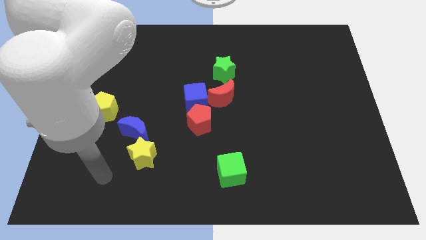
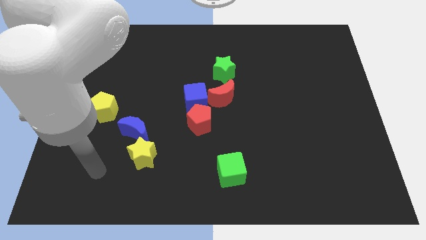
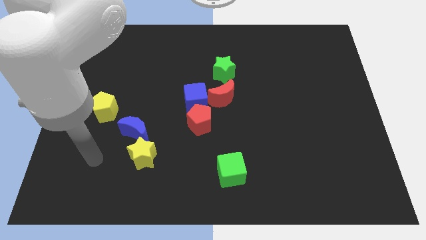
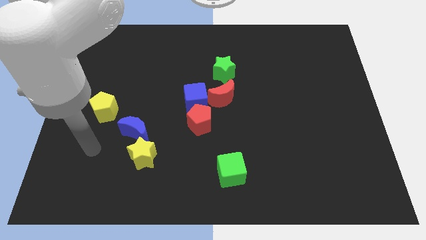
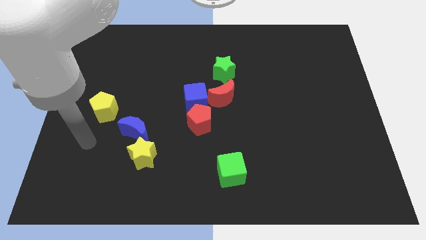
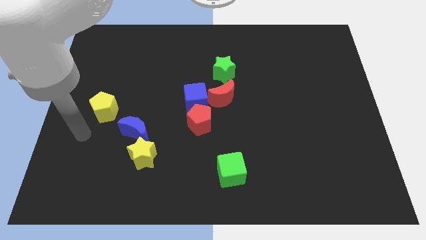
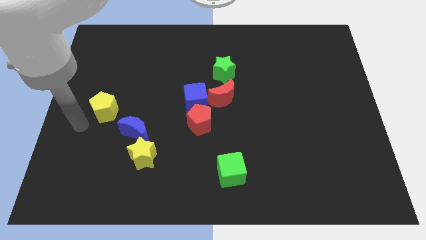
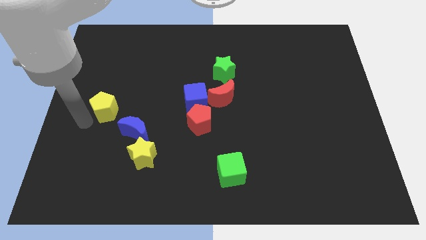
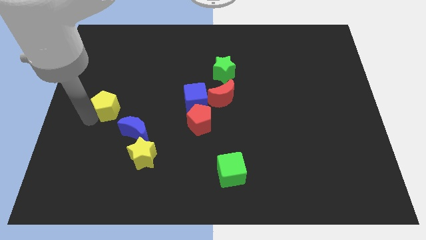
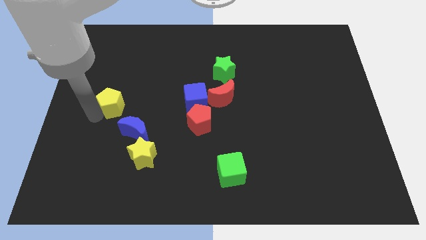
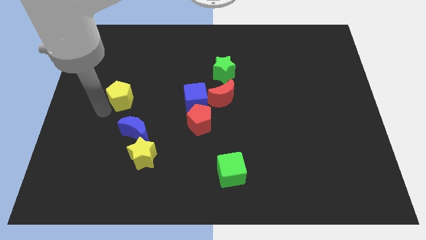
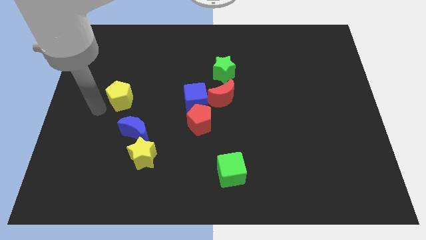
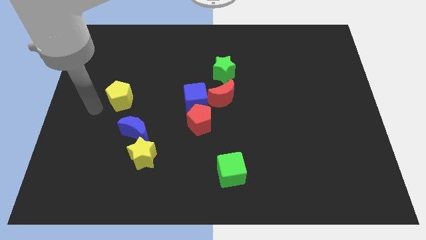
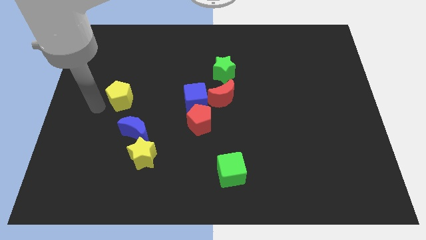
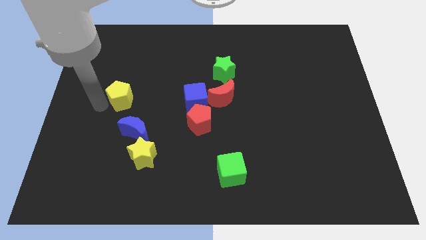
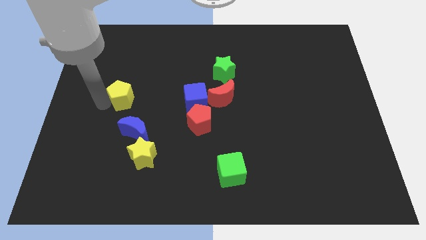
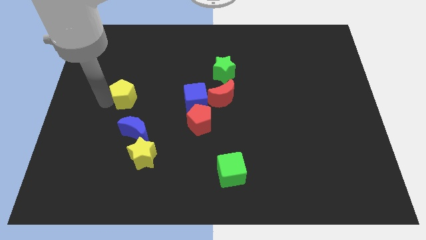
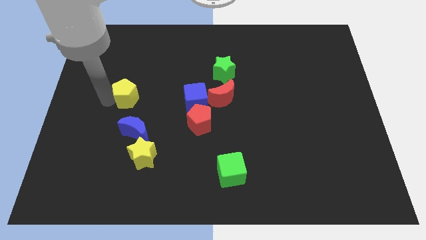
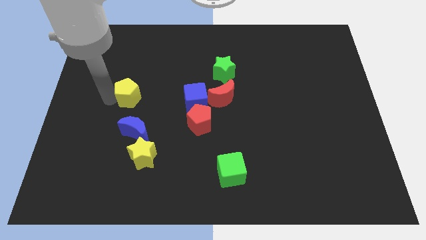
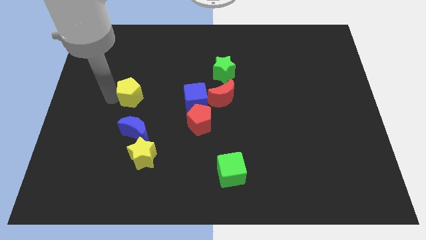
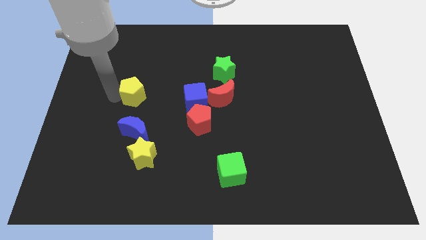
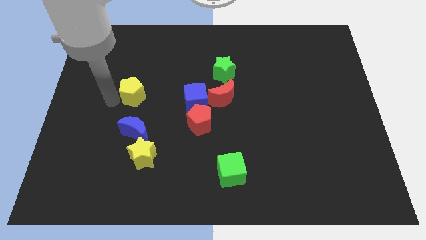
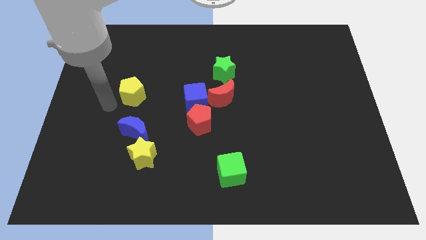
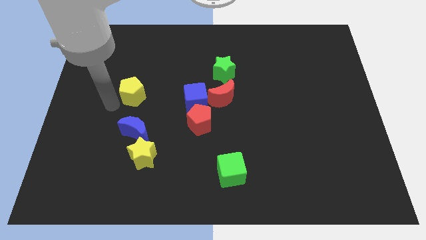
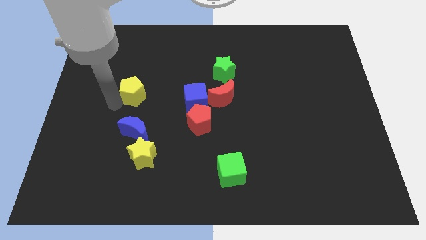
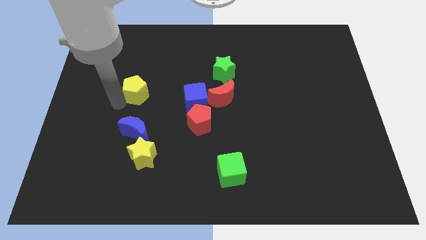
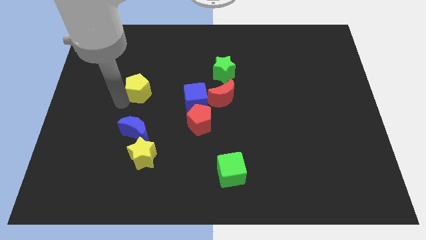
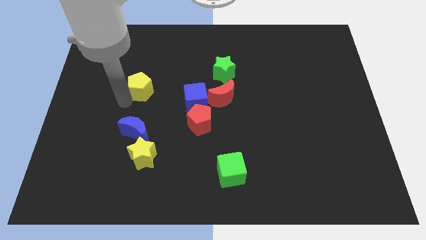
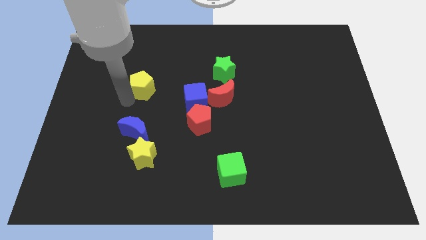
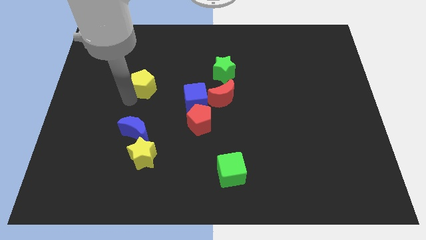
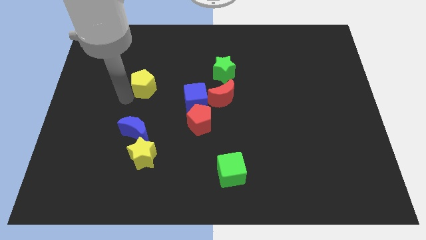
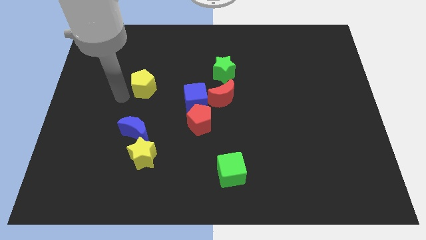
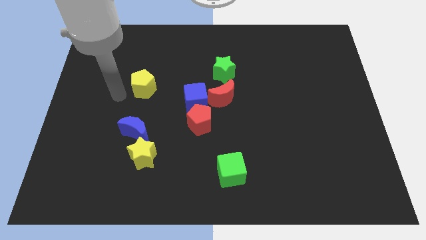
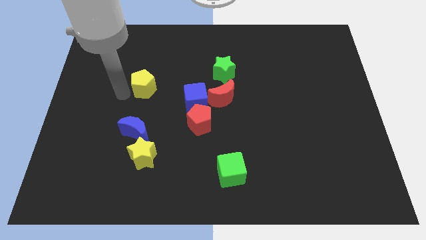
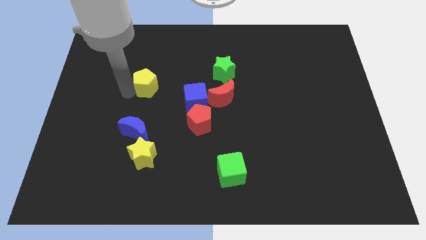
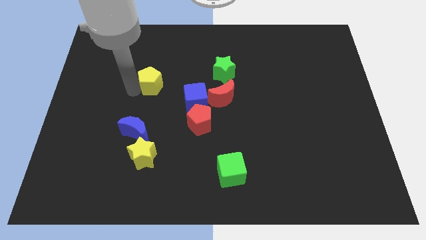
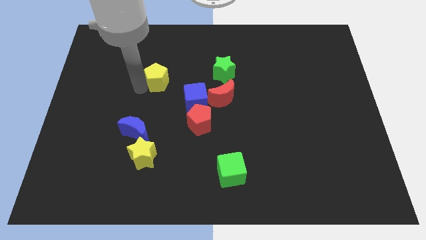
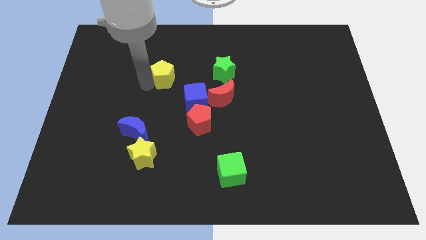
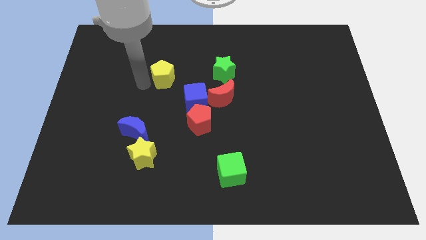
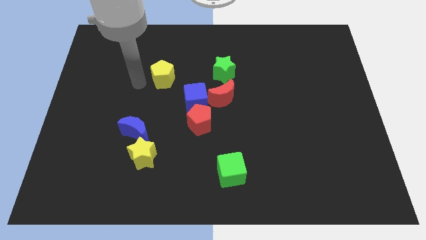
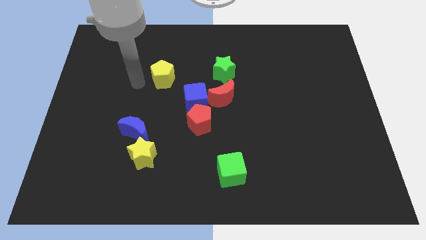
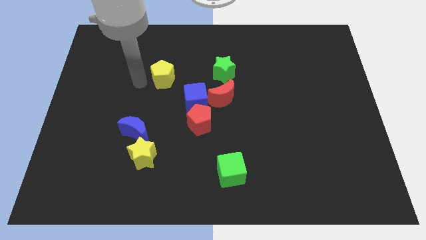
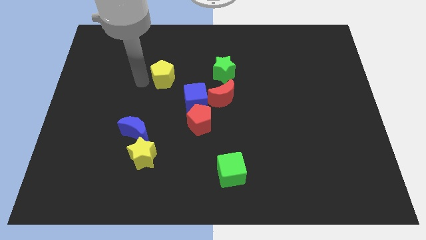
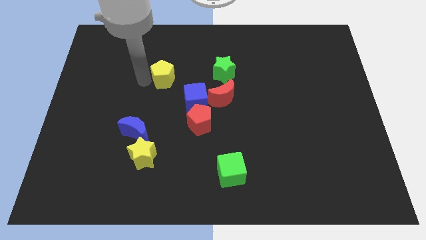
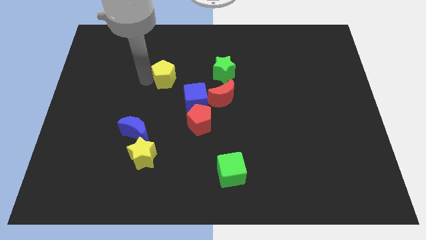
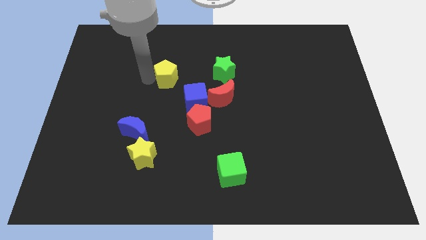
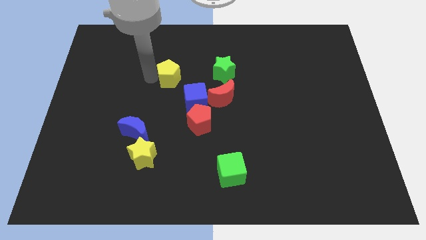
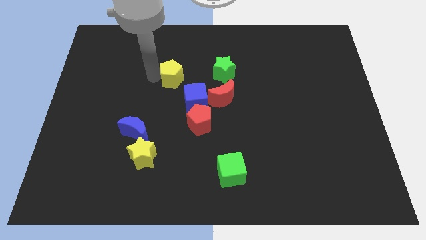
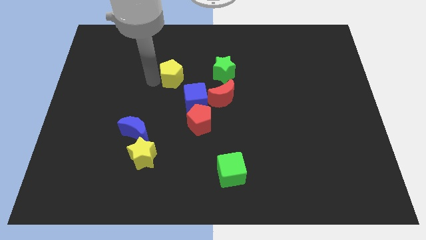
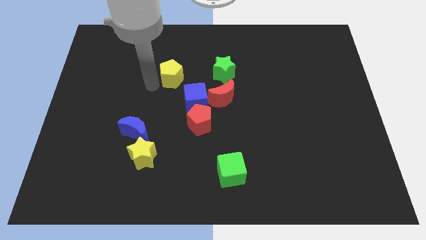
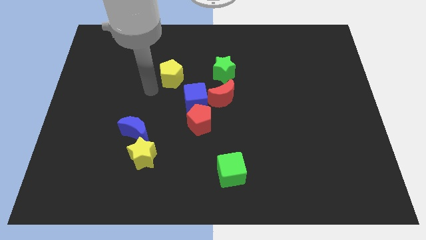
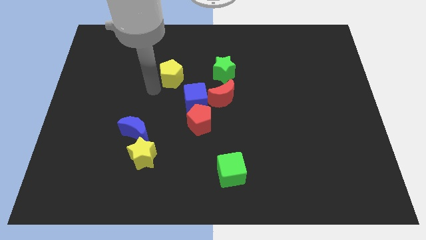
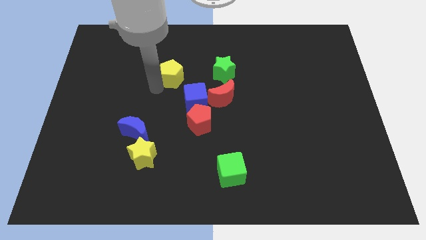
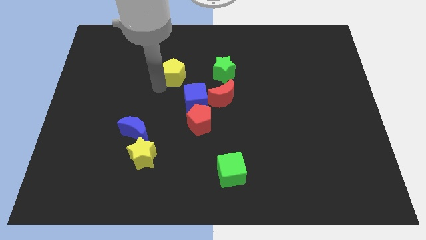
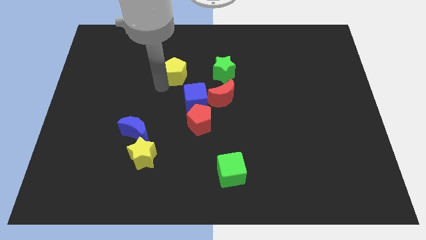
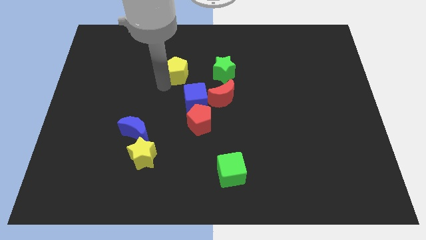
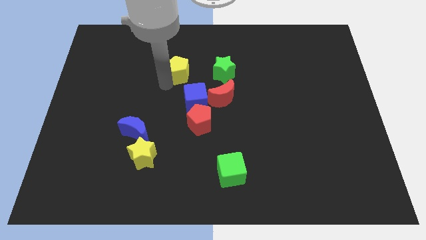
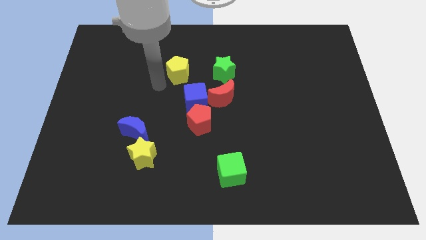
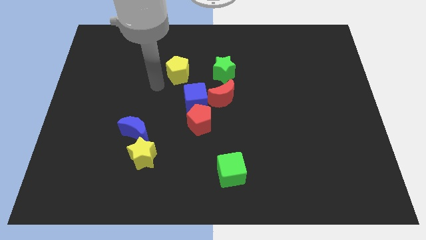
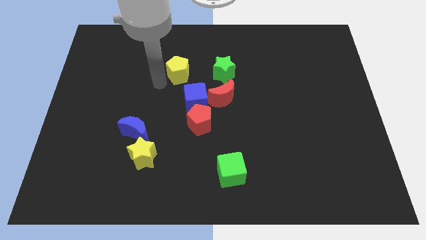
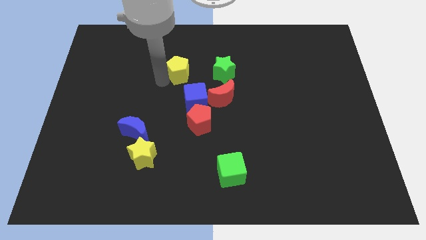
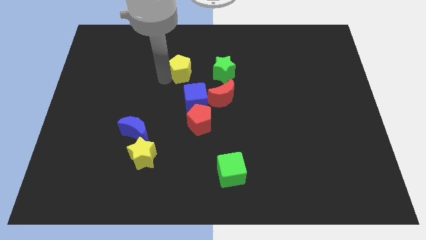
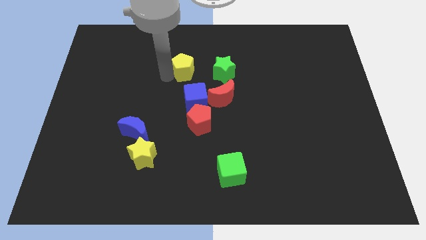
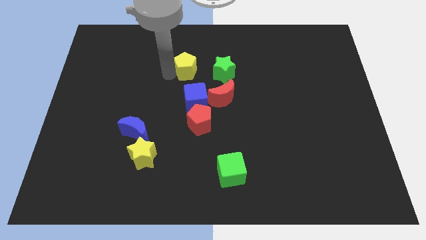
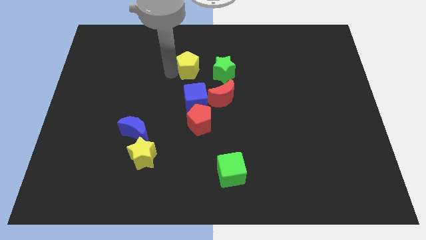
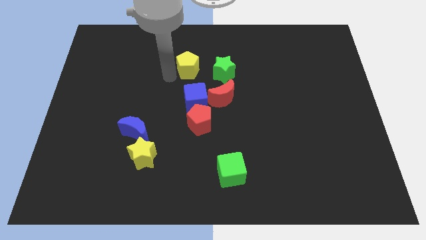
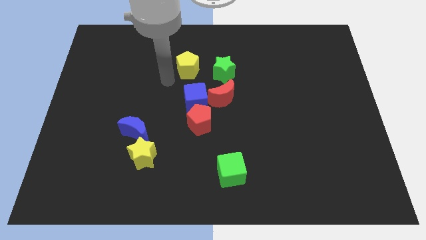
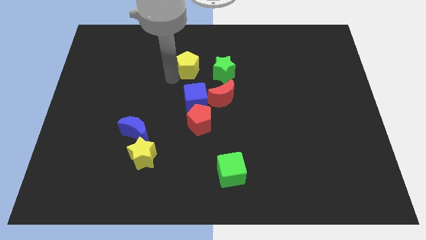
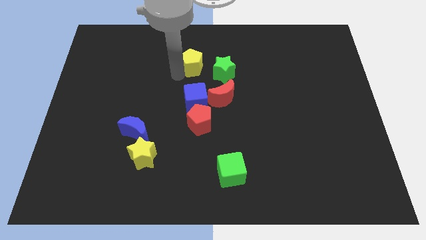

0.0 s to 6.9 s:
push the yellow pentagon to the top left side of the green star

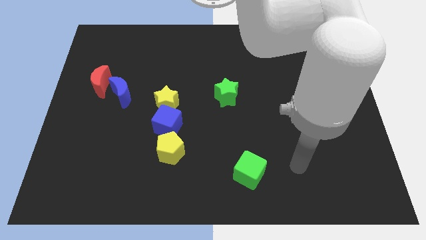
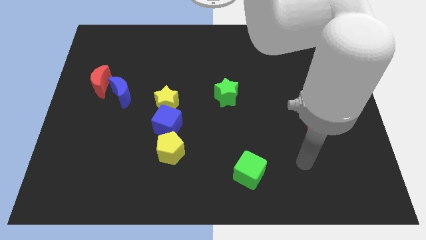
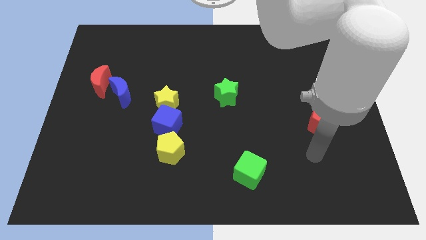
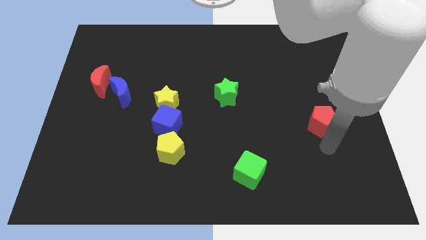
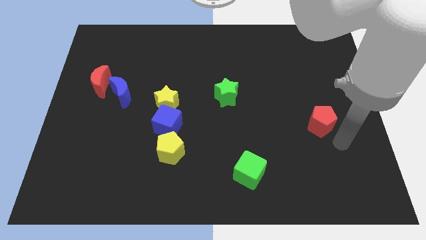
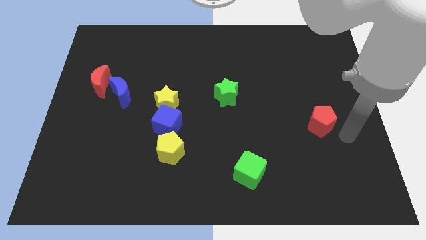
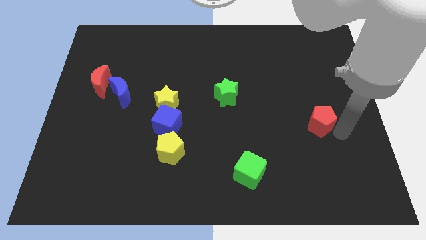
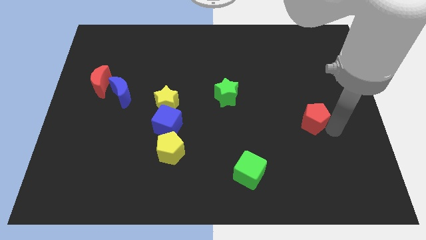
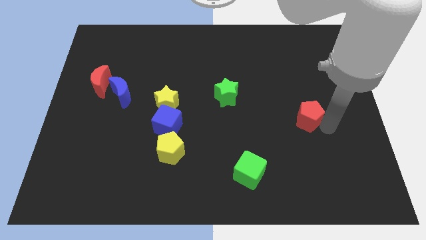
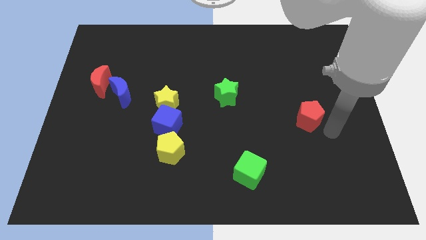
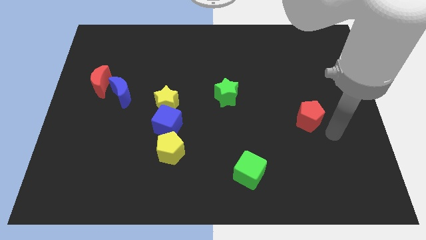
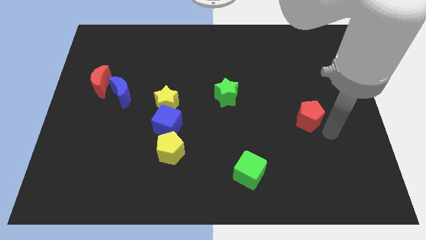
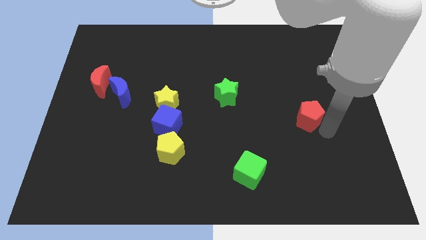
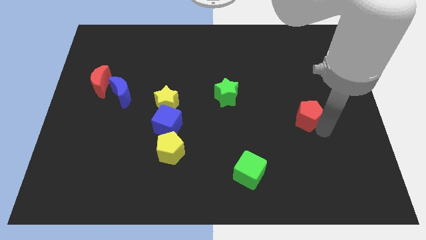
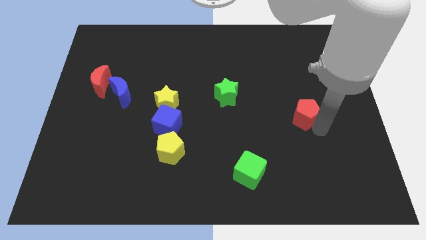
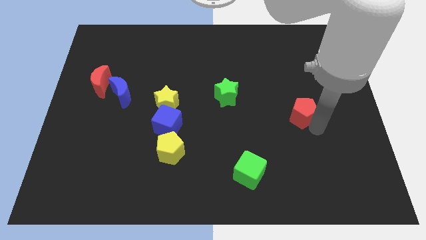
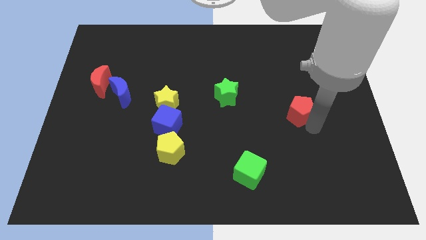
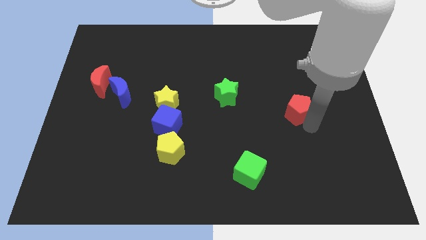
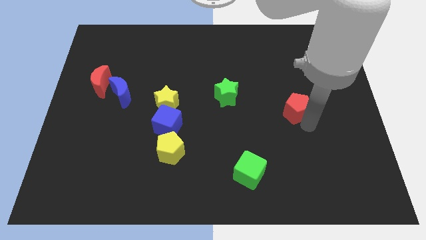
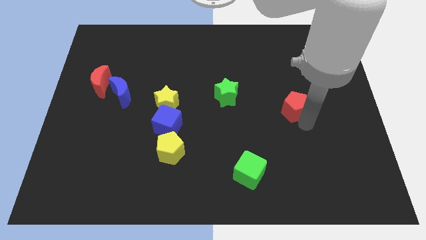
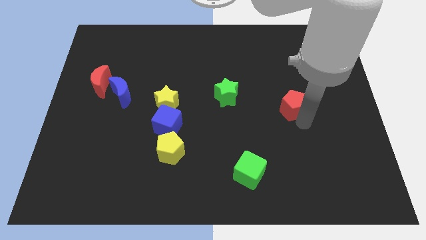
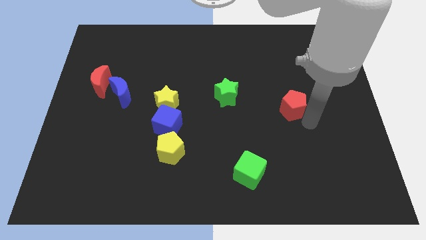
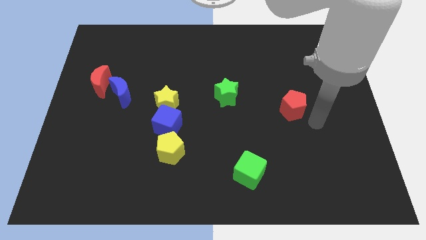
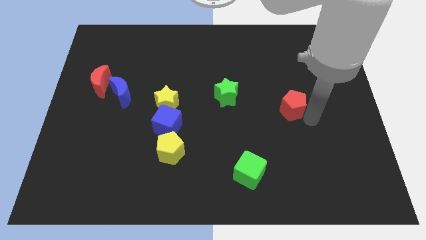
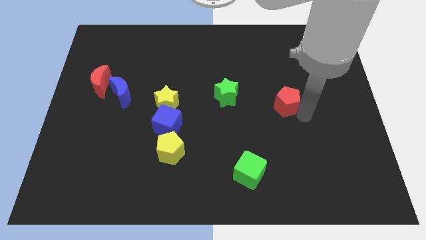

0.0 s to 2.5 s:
move the red pentagon to the right side of the green star
